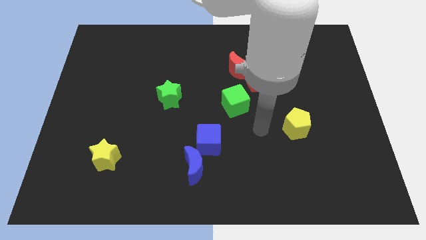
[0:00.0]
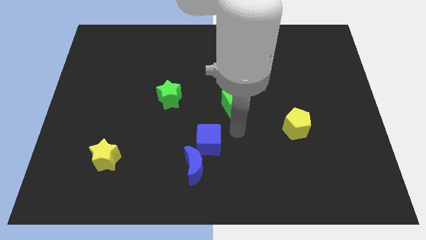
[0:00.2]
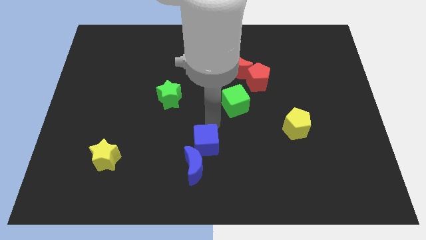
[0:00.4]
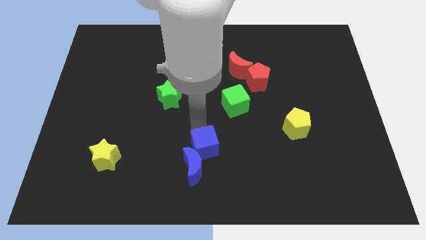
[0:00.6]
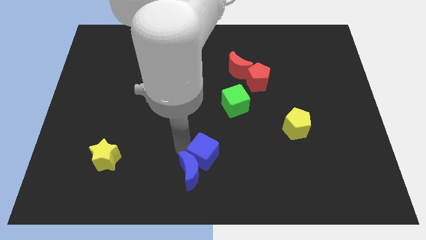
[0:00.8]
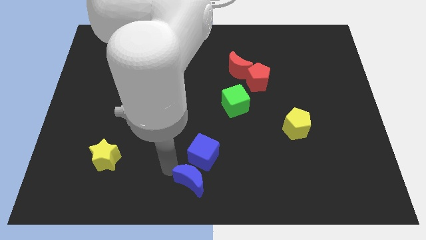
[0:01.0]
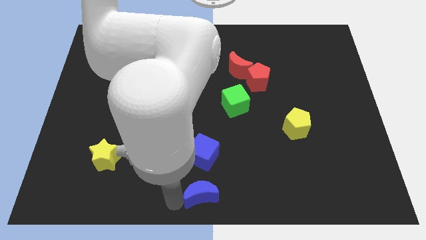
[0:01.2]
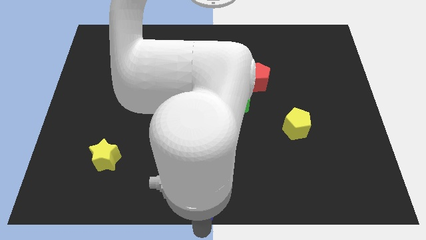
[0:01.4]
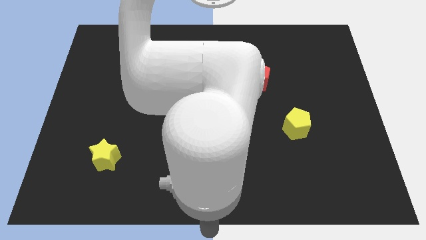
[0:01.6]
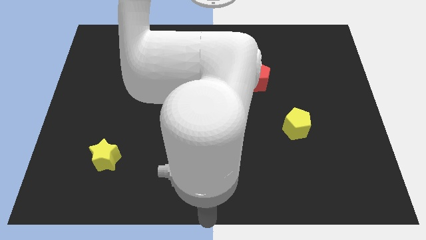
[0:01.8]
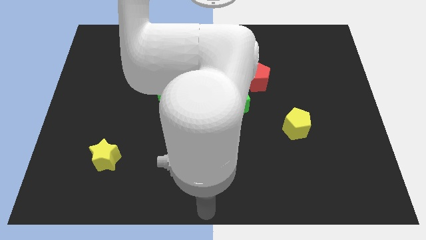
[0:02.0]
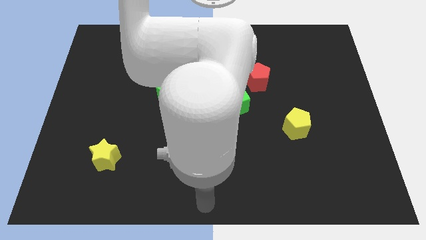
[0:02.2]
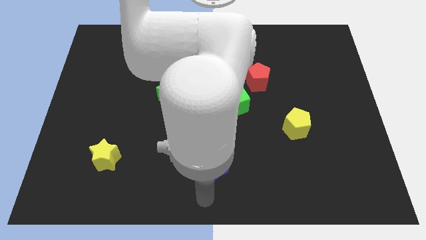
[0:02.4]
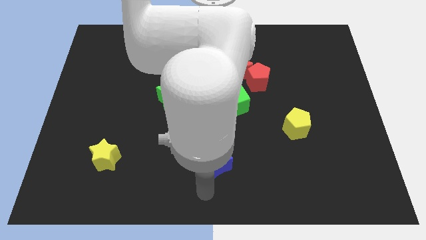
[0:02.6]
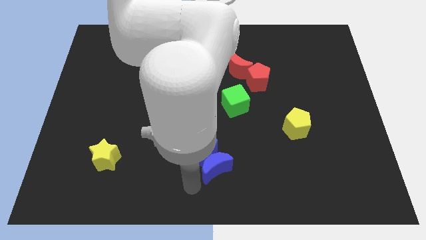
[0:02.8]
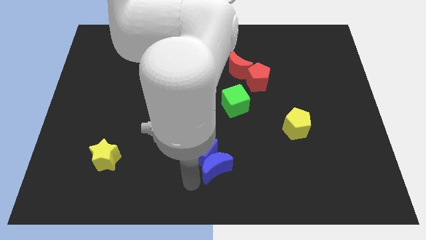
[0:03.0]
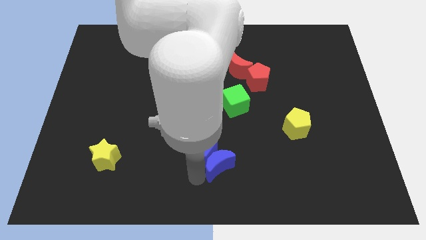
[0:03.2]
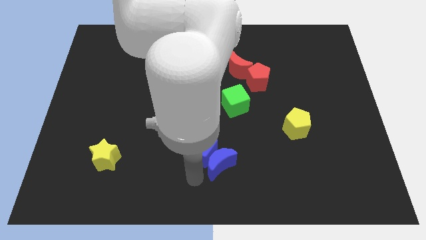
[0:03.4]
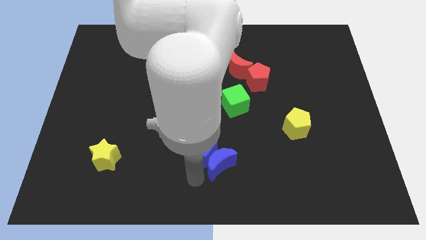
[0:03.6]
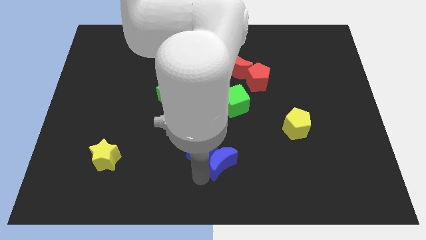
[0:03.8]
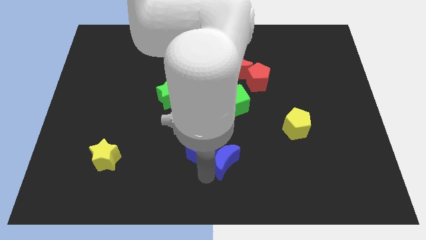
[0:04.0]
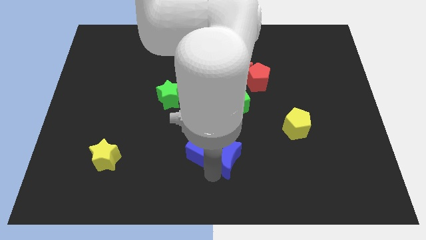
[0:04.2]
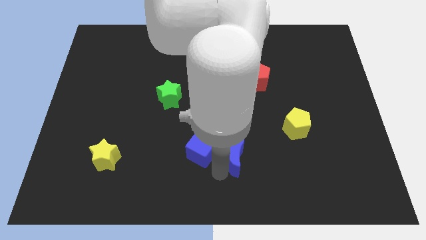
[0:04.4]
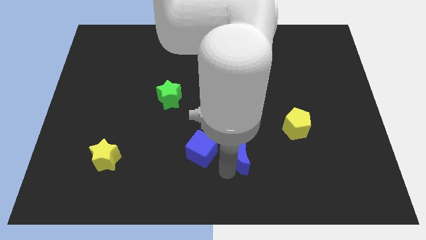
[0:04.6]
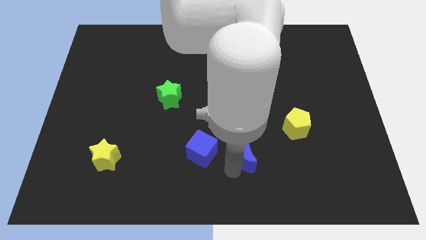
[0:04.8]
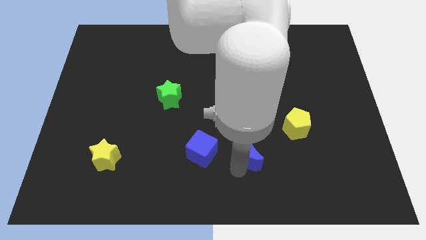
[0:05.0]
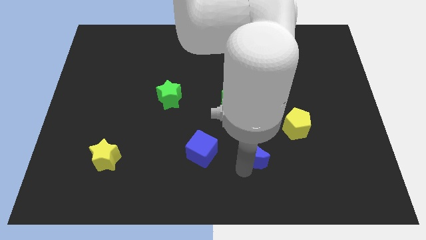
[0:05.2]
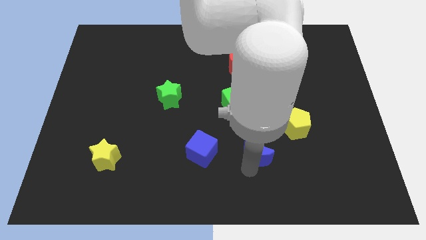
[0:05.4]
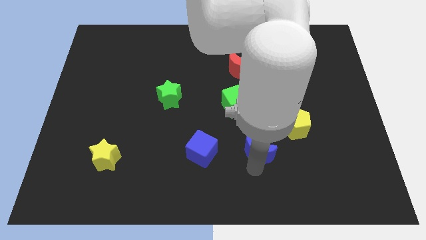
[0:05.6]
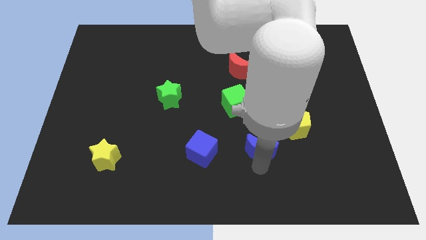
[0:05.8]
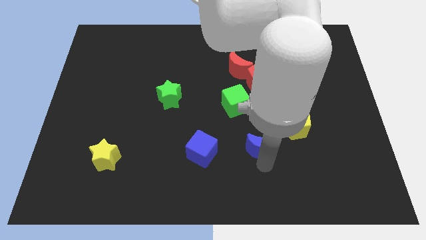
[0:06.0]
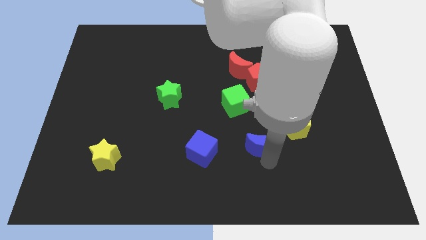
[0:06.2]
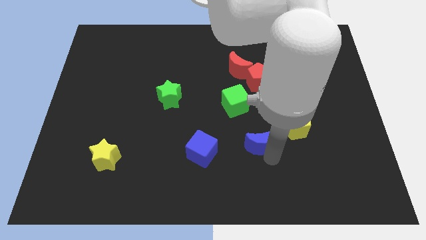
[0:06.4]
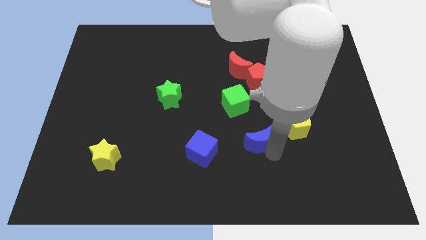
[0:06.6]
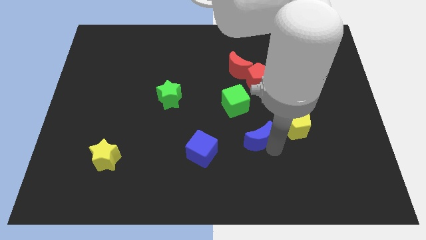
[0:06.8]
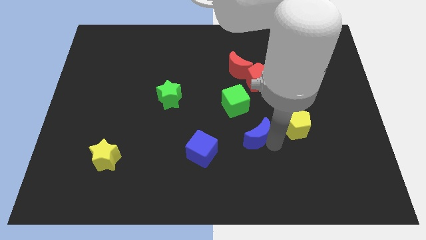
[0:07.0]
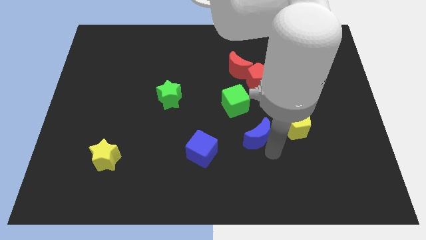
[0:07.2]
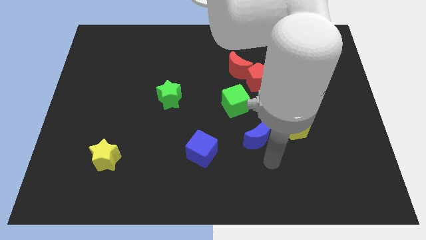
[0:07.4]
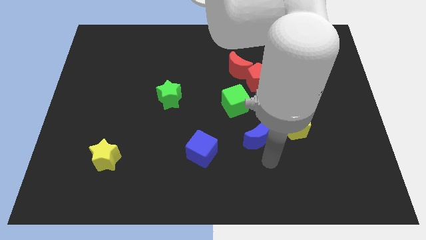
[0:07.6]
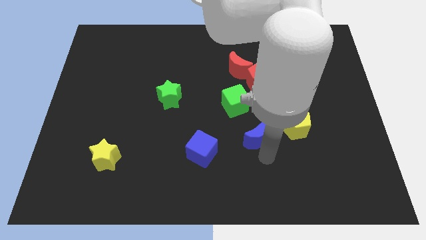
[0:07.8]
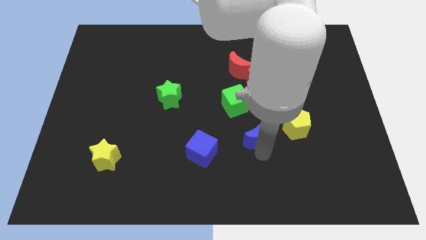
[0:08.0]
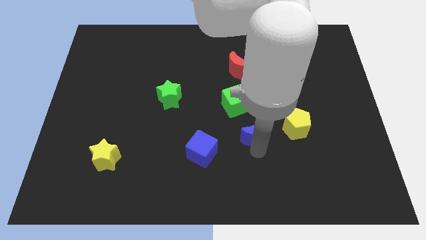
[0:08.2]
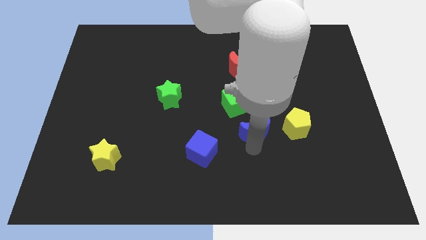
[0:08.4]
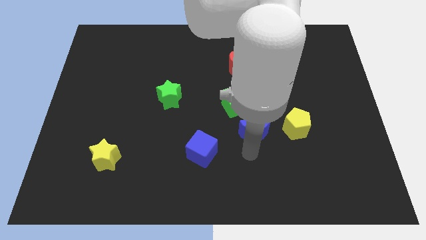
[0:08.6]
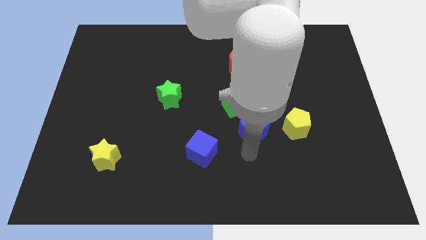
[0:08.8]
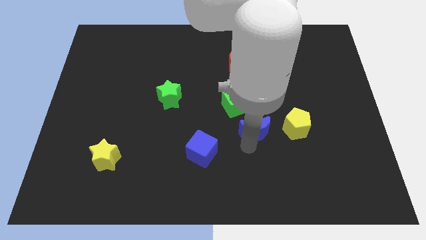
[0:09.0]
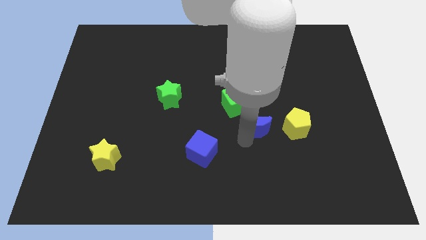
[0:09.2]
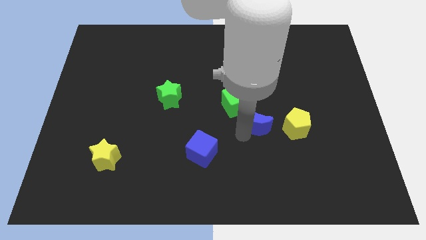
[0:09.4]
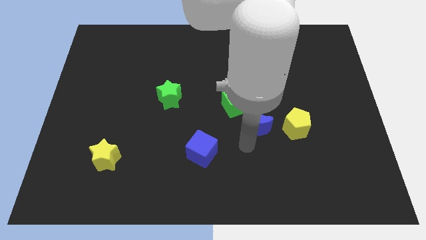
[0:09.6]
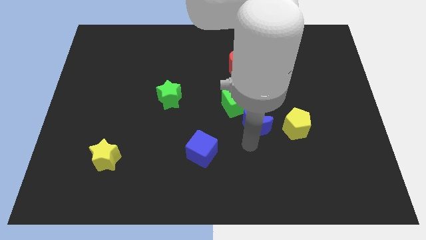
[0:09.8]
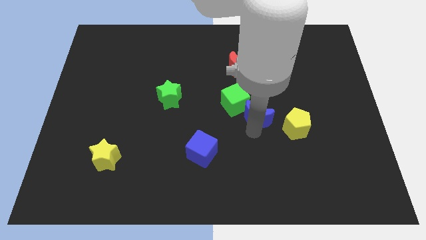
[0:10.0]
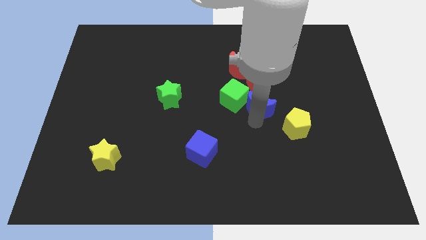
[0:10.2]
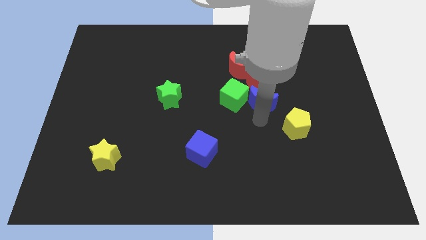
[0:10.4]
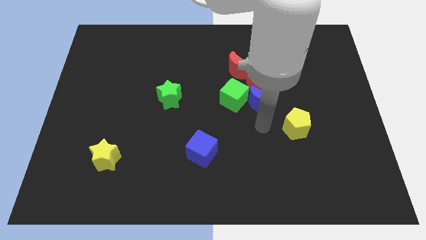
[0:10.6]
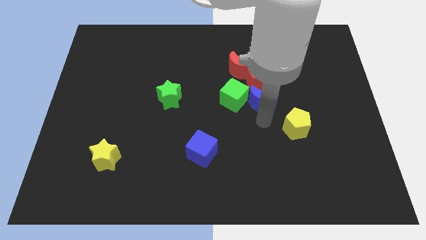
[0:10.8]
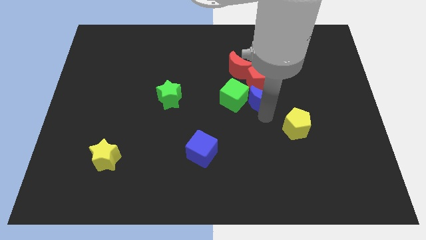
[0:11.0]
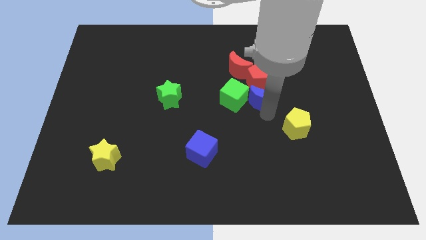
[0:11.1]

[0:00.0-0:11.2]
put the blue moon to the bottom right of the red moon

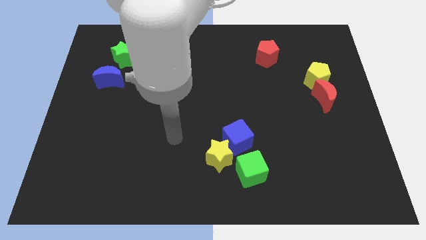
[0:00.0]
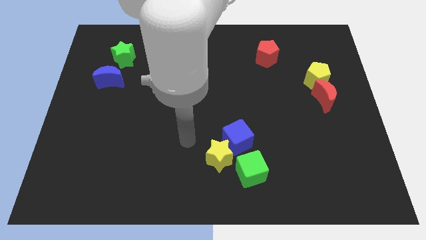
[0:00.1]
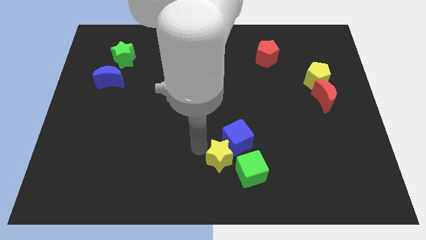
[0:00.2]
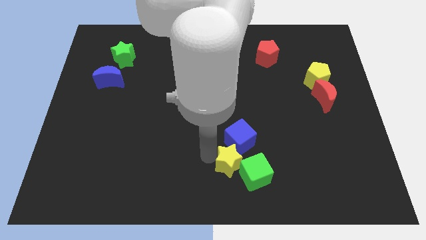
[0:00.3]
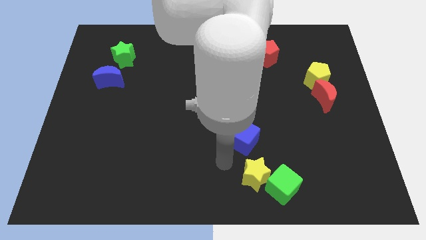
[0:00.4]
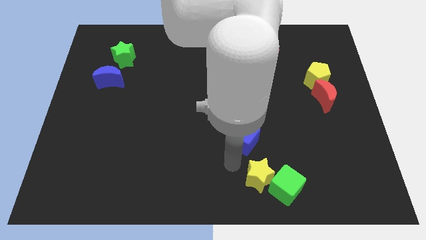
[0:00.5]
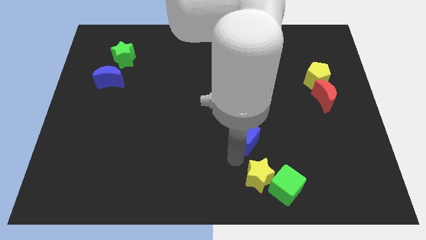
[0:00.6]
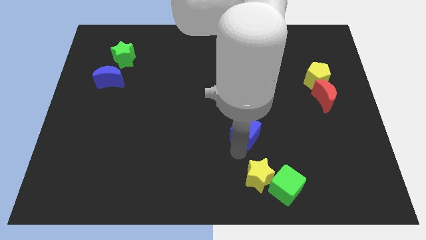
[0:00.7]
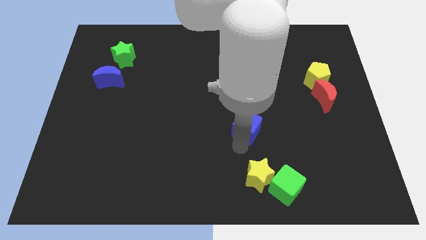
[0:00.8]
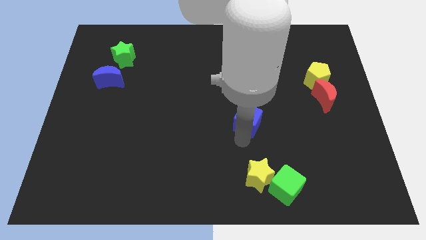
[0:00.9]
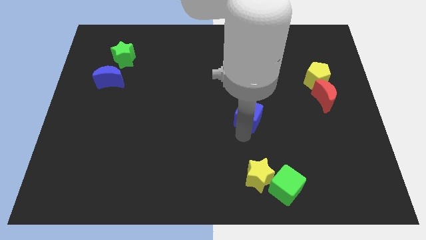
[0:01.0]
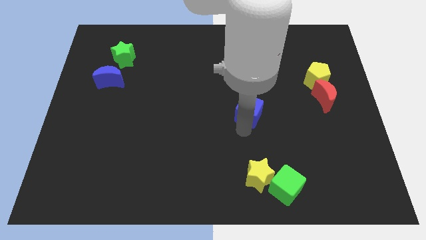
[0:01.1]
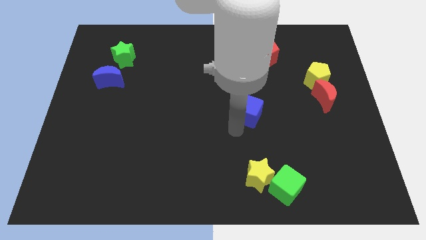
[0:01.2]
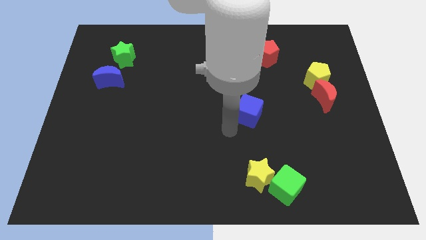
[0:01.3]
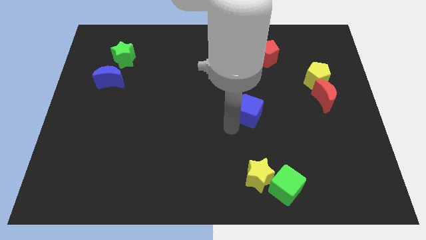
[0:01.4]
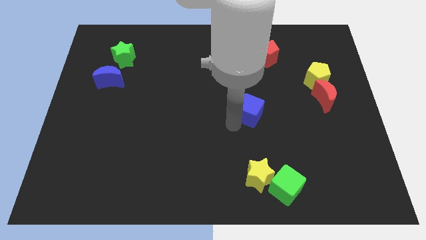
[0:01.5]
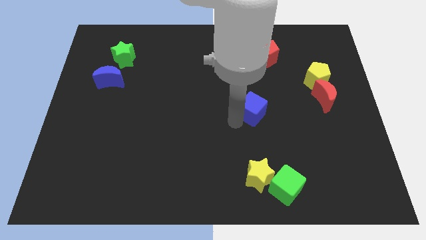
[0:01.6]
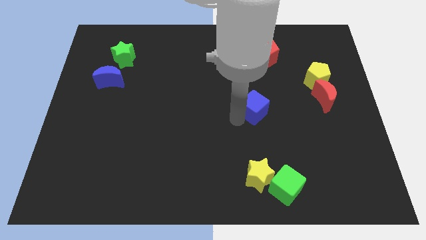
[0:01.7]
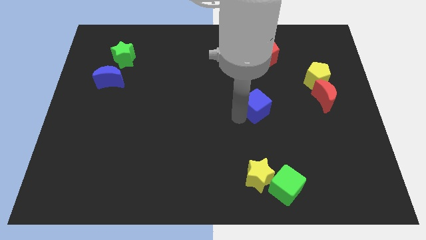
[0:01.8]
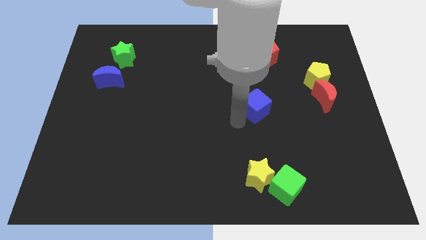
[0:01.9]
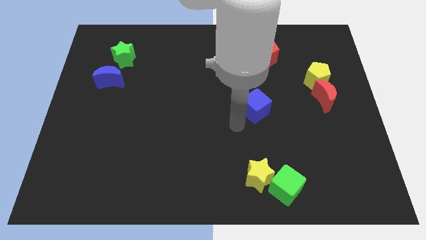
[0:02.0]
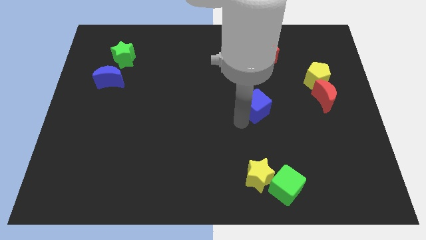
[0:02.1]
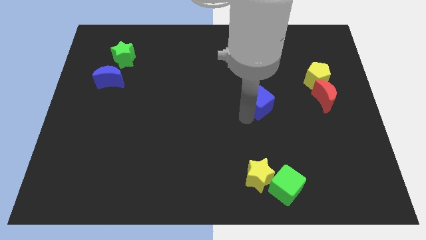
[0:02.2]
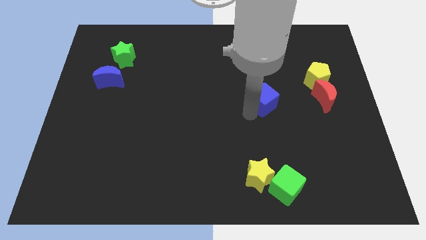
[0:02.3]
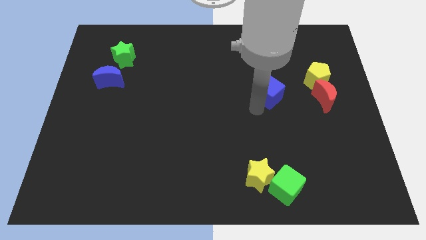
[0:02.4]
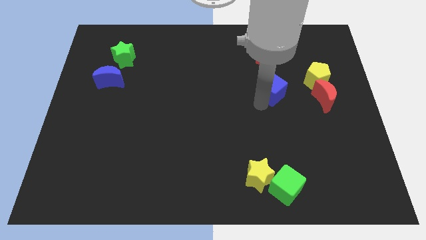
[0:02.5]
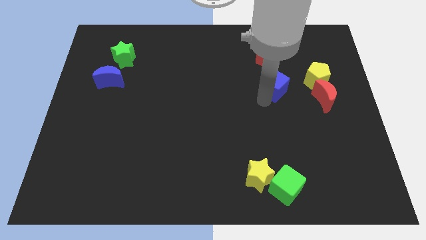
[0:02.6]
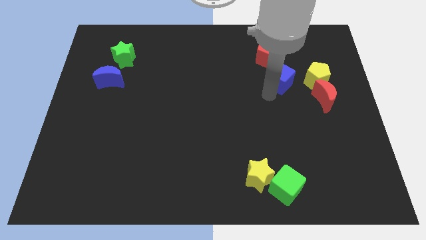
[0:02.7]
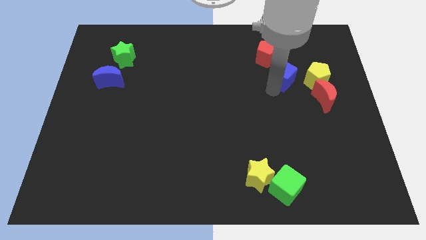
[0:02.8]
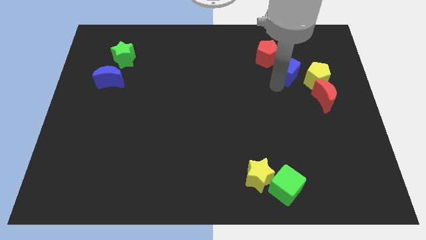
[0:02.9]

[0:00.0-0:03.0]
put the blue cube diagonally up and to the left of the yellow pentagon
